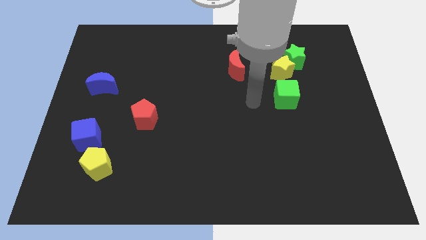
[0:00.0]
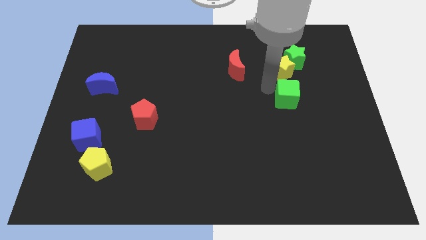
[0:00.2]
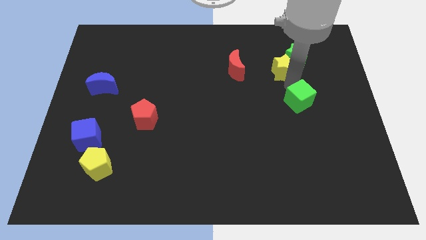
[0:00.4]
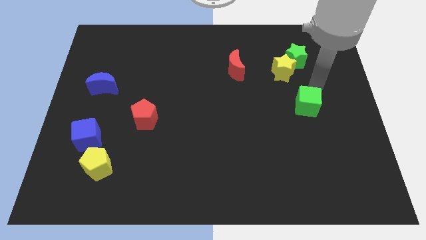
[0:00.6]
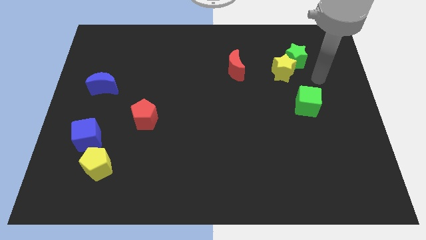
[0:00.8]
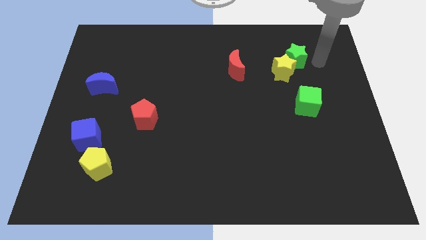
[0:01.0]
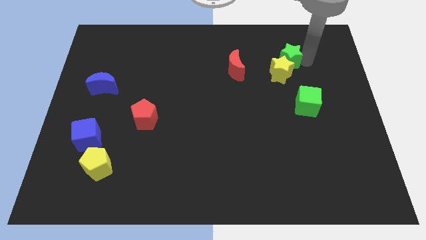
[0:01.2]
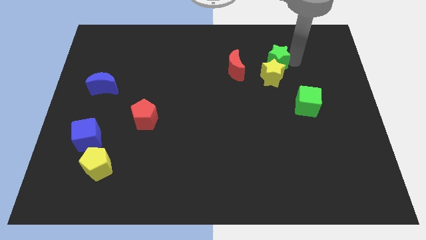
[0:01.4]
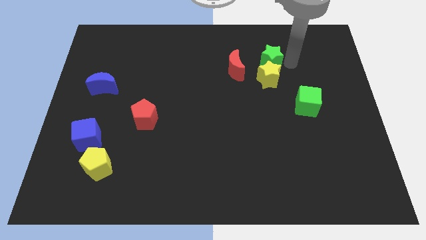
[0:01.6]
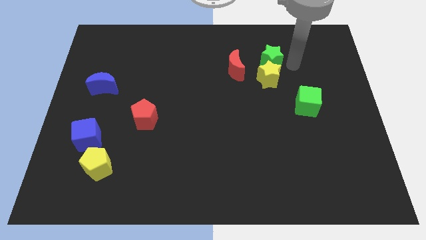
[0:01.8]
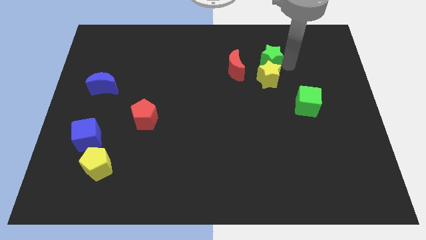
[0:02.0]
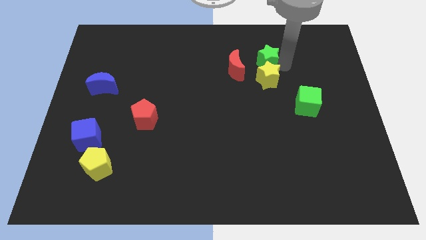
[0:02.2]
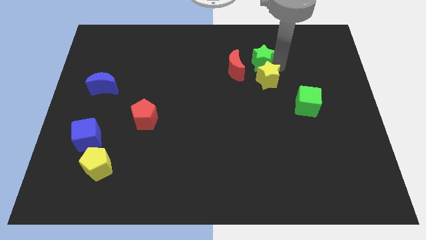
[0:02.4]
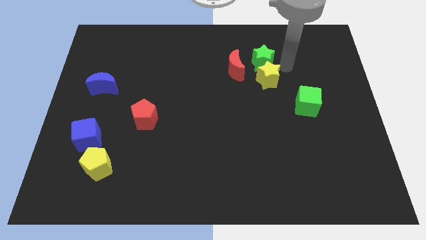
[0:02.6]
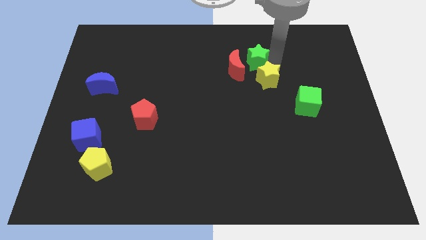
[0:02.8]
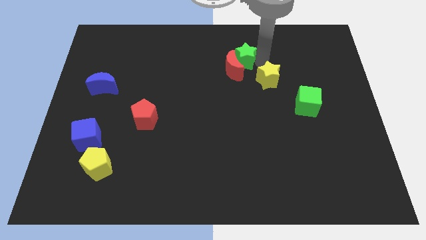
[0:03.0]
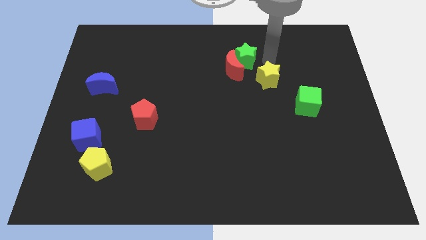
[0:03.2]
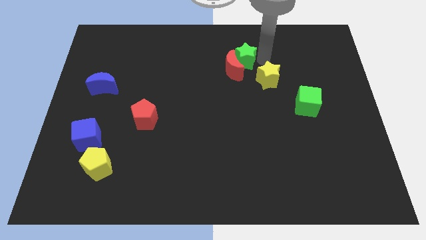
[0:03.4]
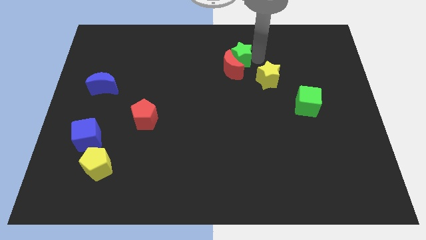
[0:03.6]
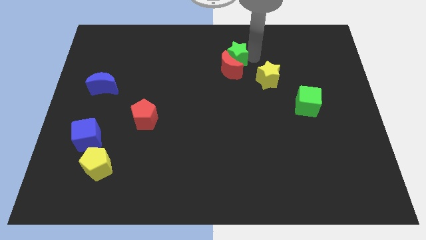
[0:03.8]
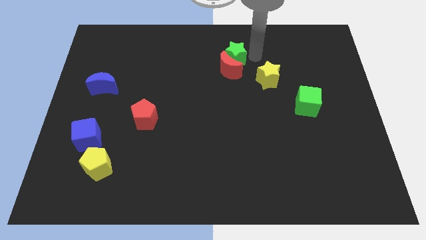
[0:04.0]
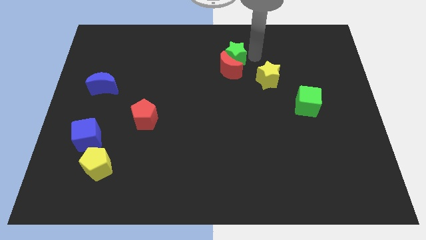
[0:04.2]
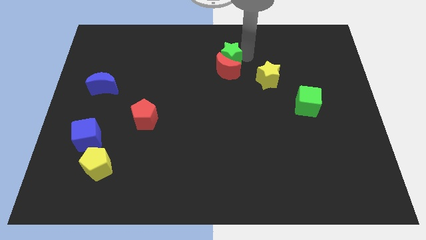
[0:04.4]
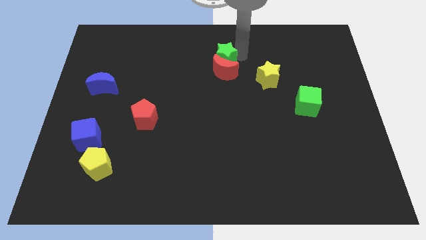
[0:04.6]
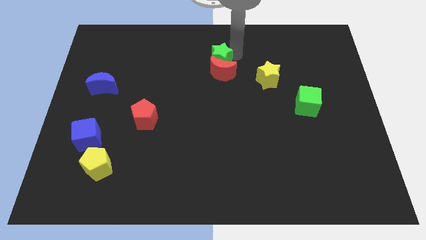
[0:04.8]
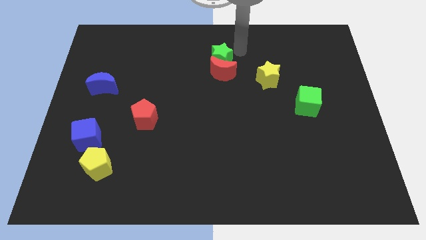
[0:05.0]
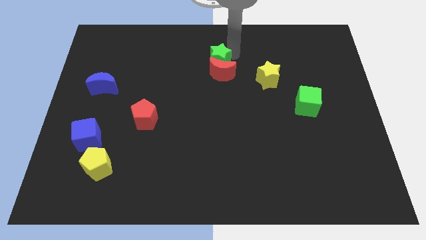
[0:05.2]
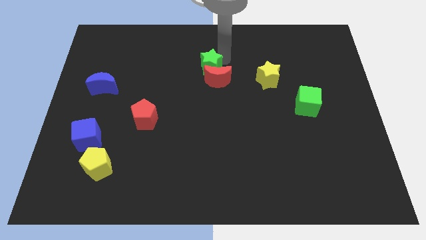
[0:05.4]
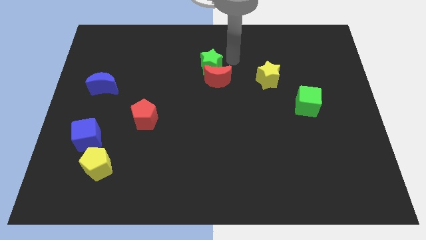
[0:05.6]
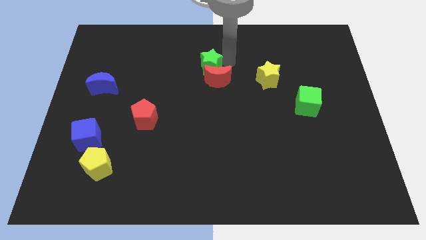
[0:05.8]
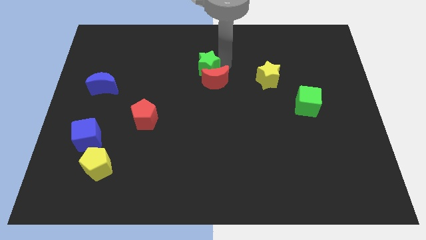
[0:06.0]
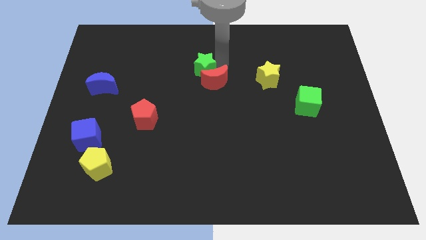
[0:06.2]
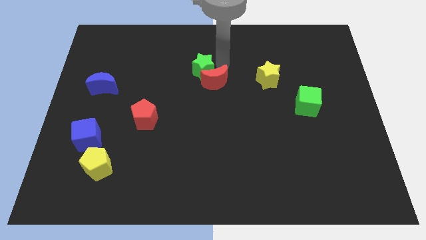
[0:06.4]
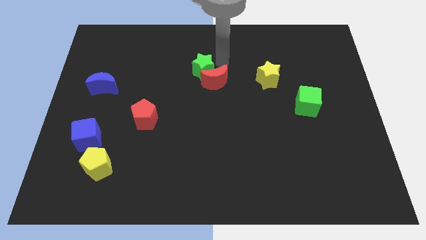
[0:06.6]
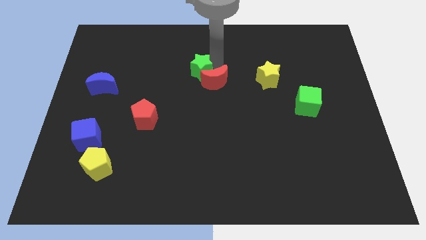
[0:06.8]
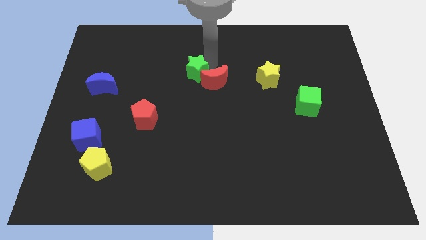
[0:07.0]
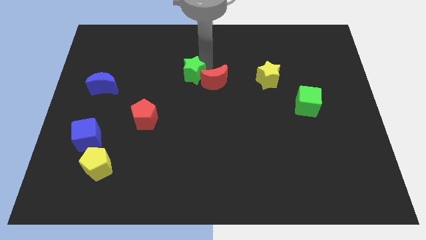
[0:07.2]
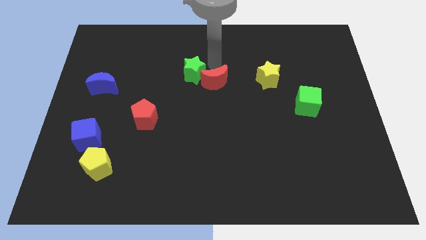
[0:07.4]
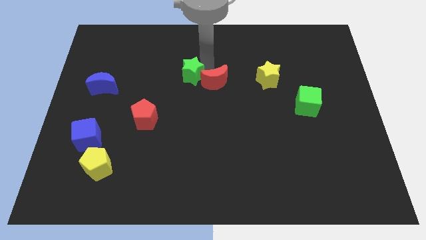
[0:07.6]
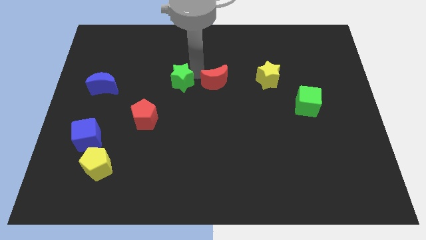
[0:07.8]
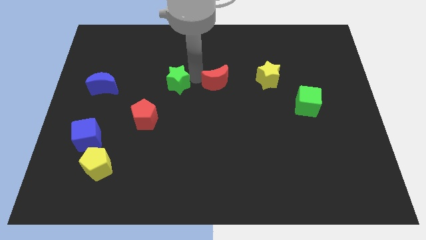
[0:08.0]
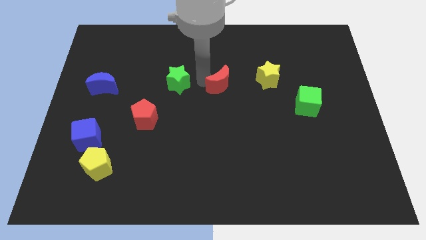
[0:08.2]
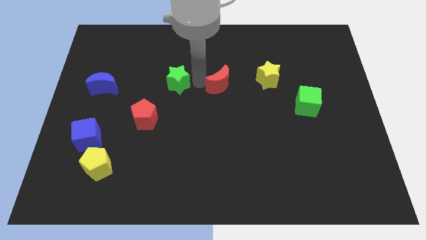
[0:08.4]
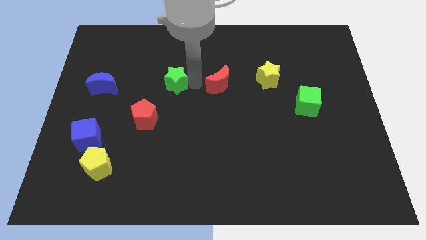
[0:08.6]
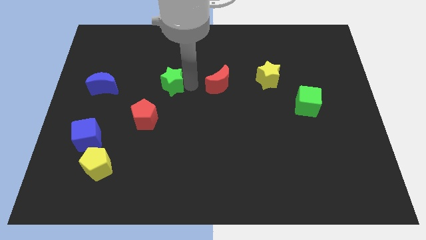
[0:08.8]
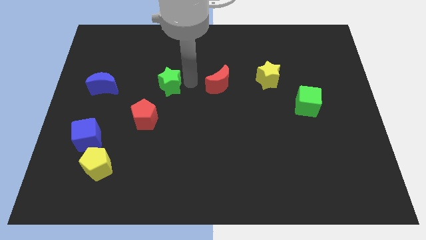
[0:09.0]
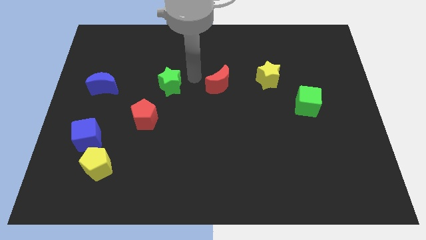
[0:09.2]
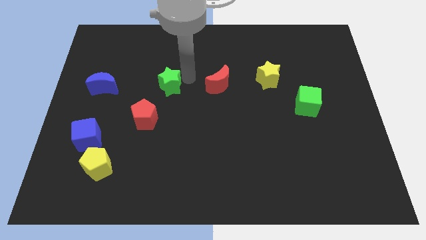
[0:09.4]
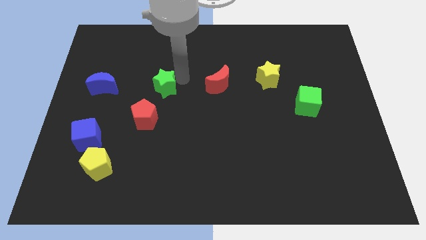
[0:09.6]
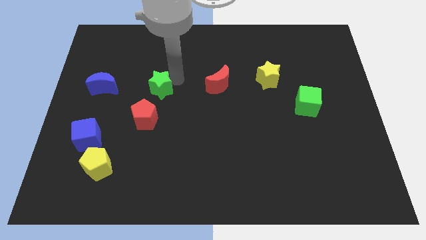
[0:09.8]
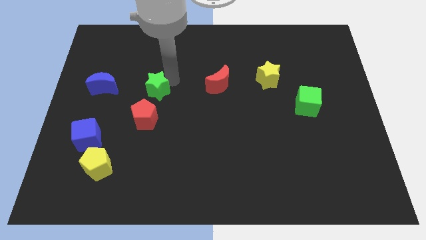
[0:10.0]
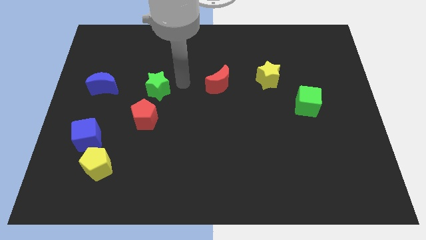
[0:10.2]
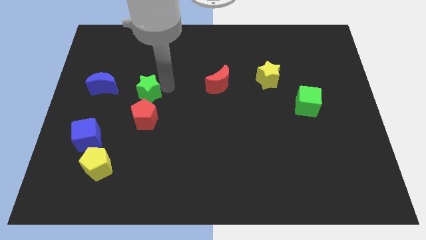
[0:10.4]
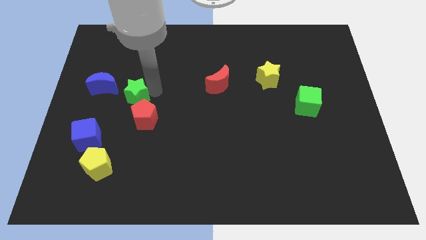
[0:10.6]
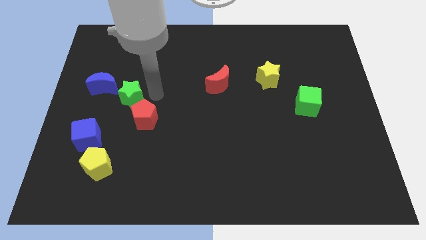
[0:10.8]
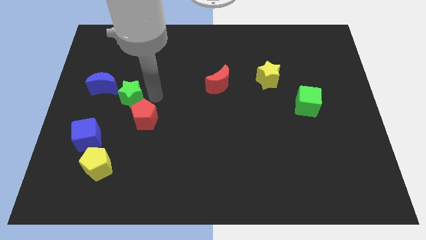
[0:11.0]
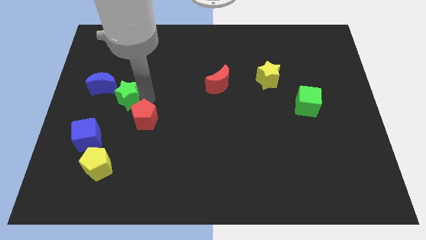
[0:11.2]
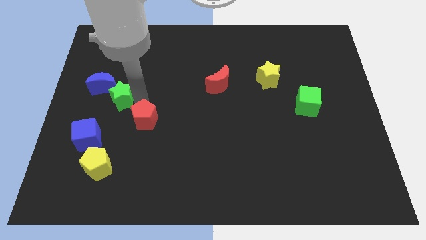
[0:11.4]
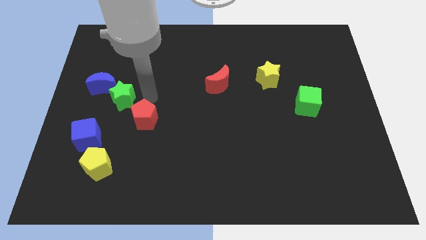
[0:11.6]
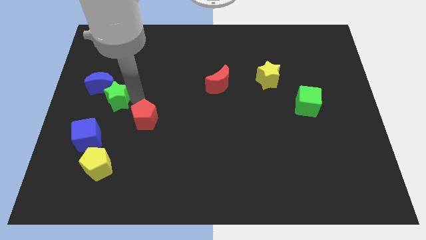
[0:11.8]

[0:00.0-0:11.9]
move the green star to the top of the blue cube

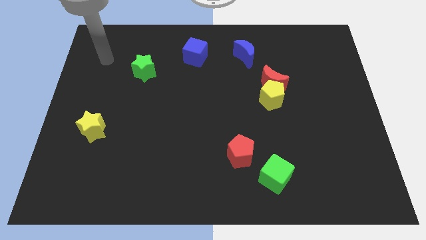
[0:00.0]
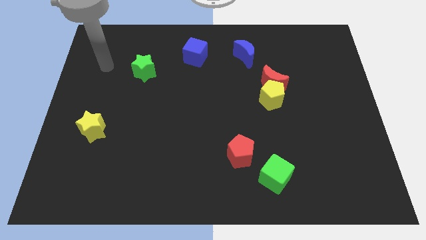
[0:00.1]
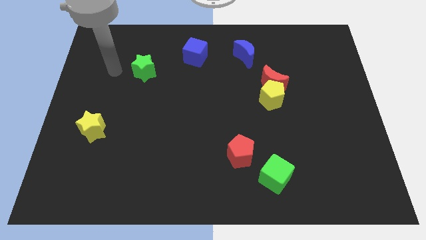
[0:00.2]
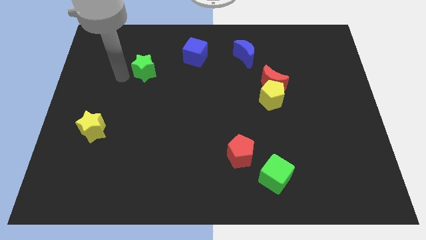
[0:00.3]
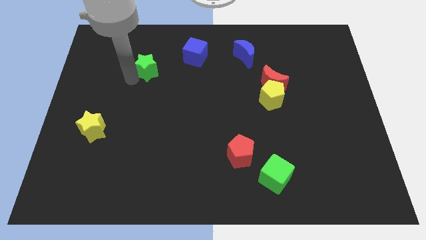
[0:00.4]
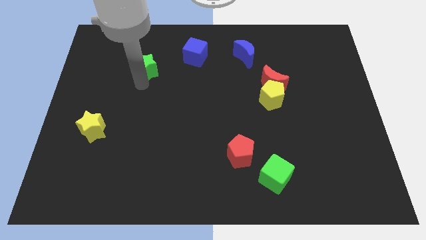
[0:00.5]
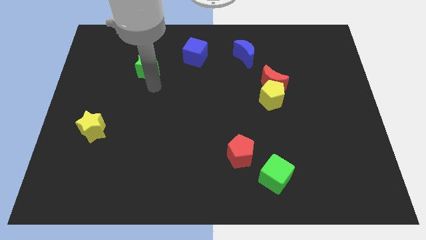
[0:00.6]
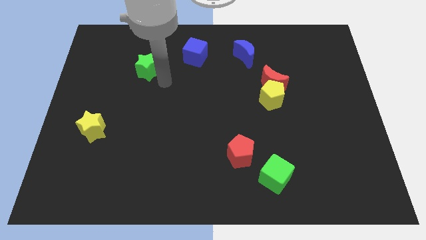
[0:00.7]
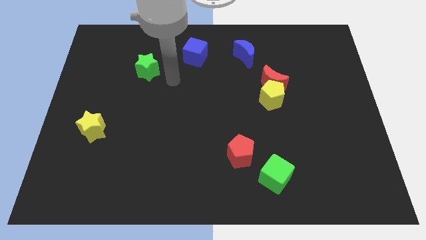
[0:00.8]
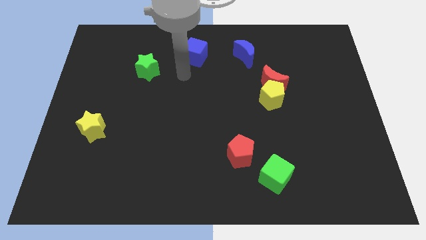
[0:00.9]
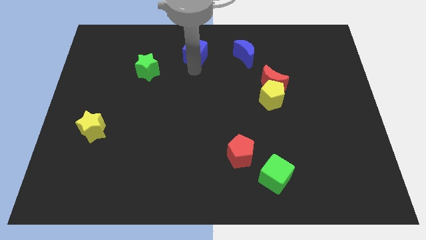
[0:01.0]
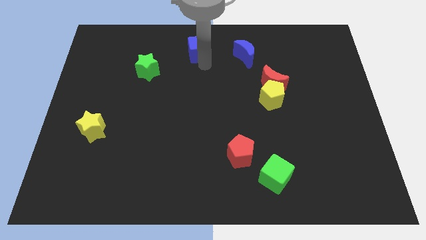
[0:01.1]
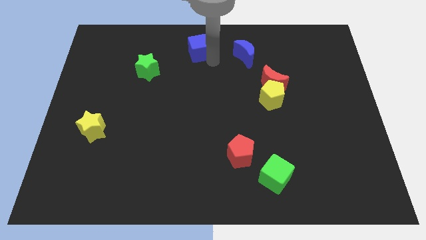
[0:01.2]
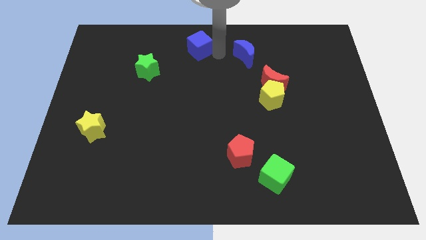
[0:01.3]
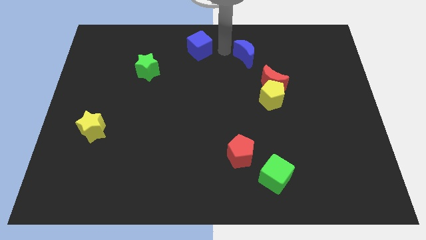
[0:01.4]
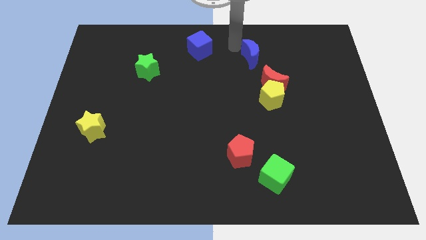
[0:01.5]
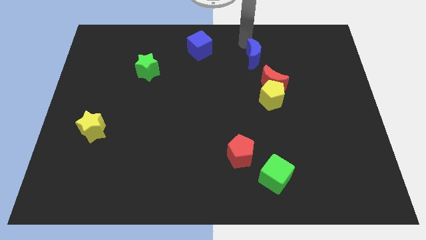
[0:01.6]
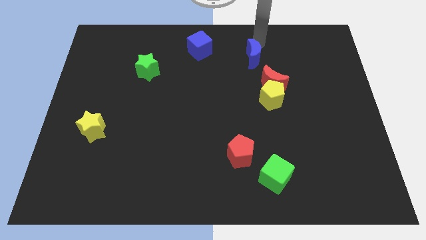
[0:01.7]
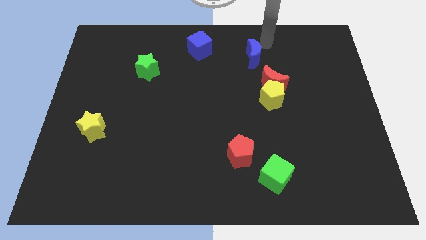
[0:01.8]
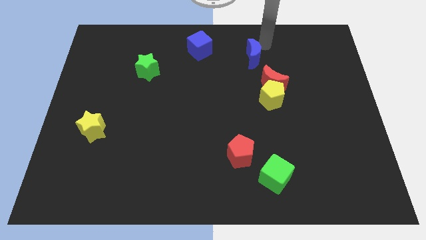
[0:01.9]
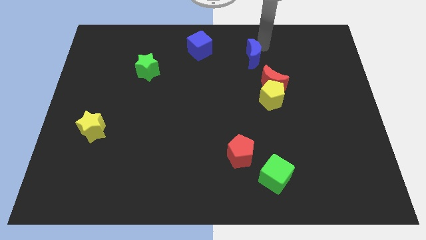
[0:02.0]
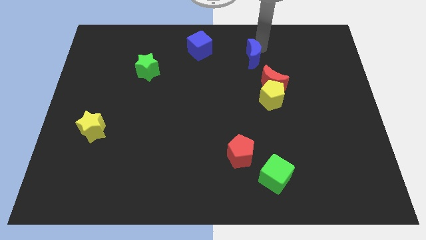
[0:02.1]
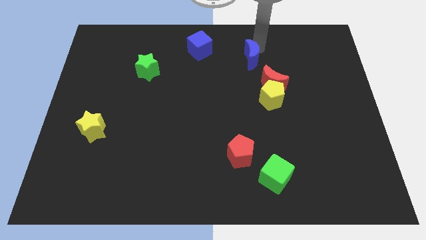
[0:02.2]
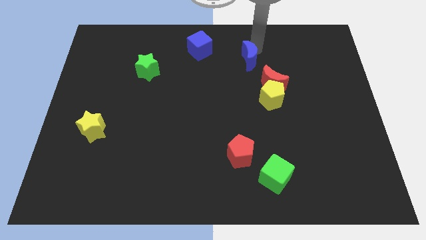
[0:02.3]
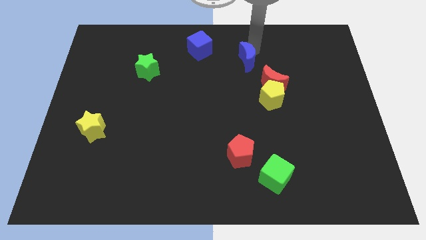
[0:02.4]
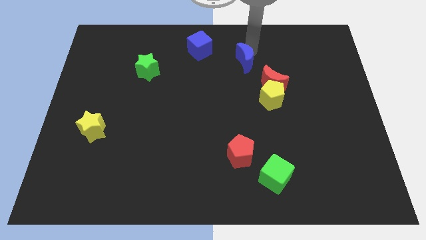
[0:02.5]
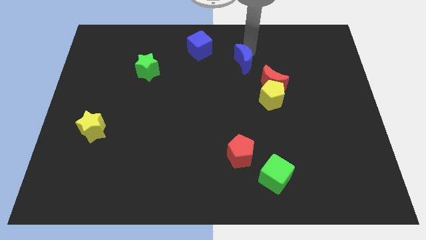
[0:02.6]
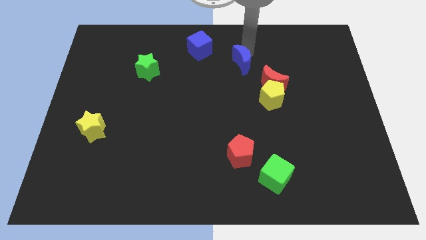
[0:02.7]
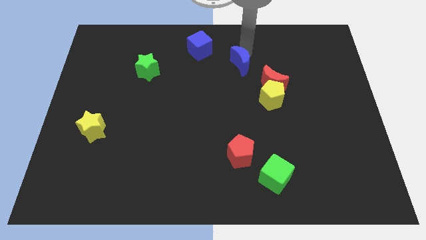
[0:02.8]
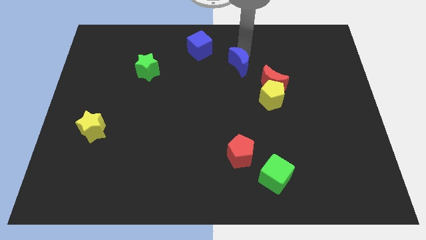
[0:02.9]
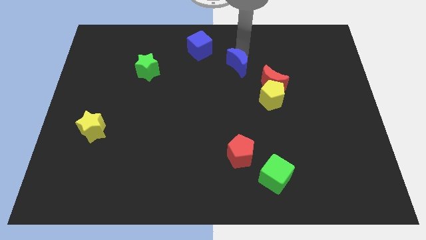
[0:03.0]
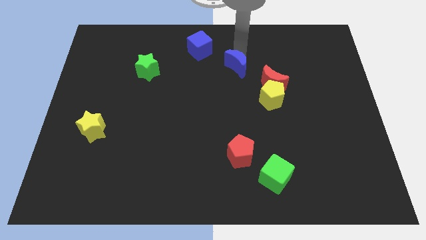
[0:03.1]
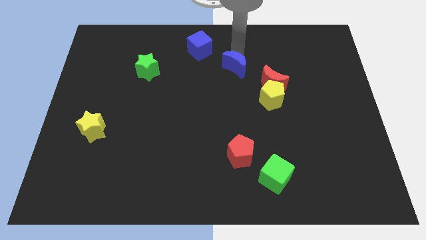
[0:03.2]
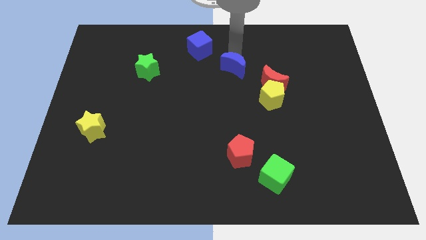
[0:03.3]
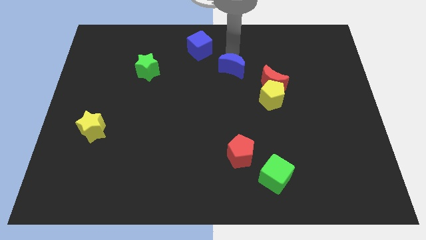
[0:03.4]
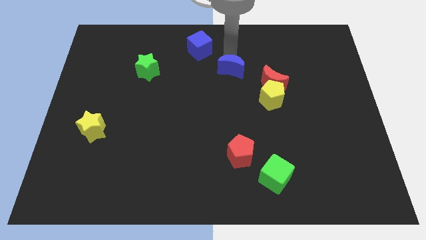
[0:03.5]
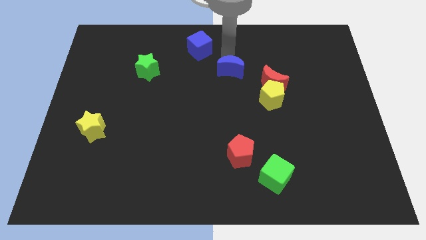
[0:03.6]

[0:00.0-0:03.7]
move the blue moon to the left side of the red moon
